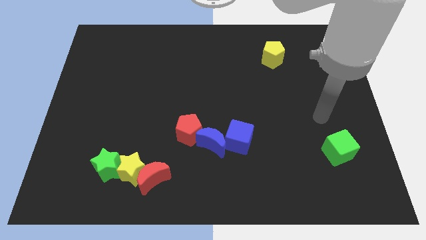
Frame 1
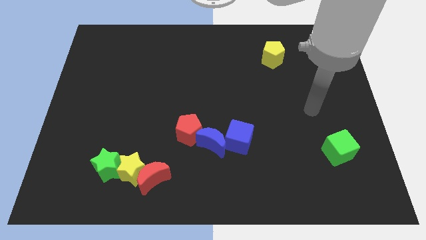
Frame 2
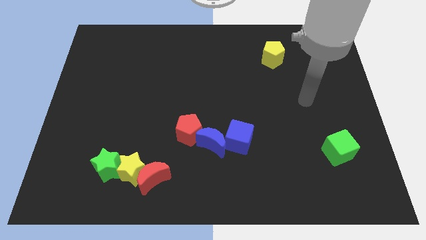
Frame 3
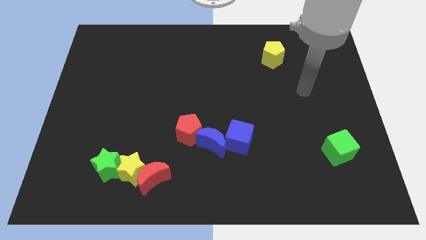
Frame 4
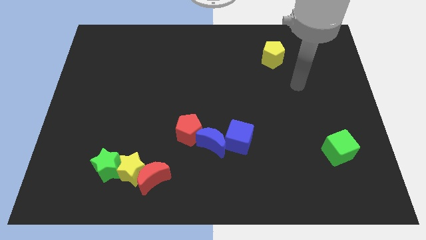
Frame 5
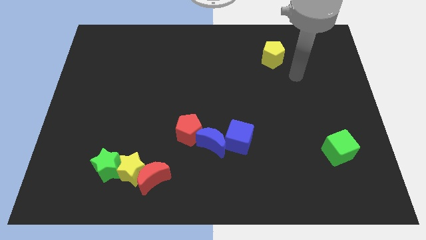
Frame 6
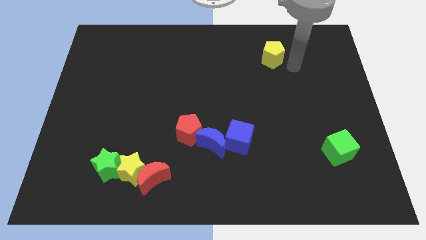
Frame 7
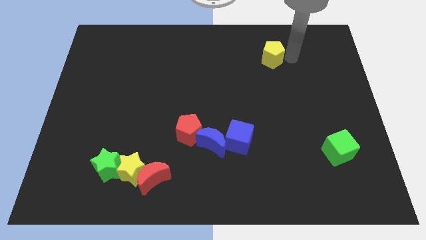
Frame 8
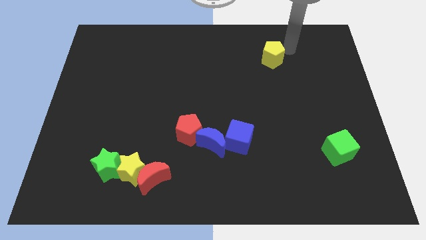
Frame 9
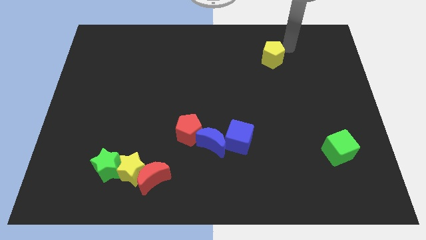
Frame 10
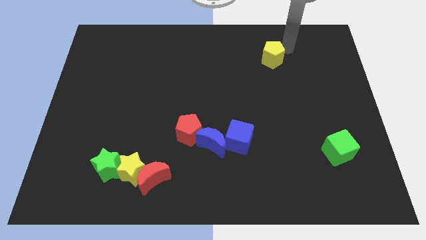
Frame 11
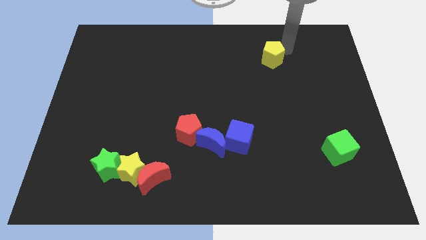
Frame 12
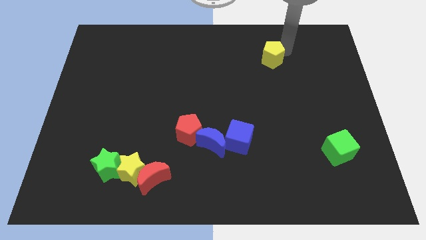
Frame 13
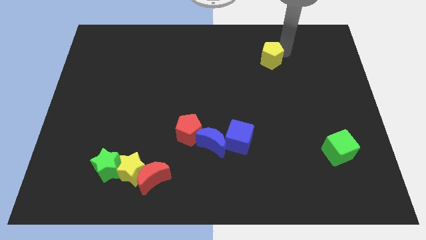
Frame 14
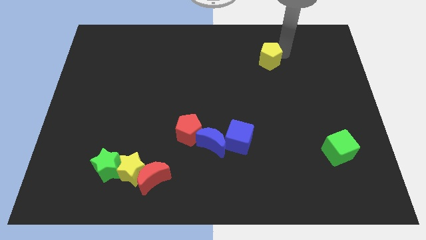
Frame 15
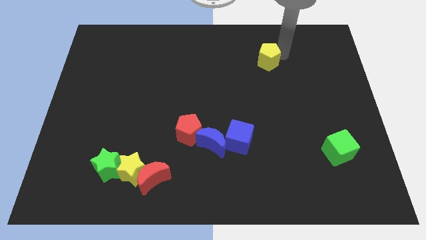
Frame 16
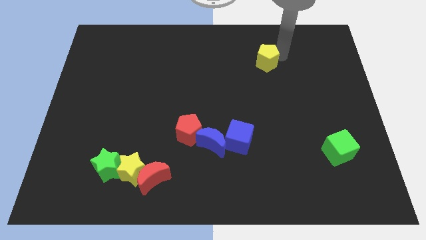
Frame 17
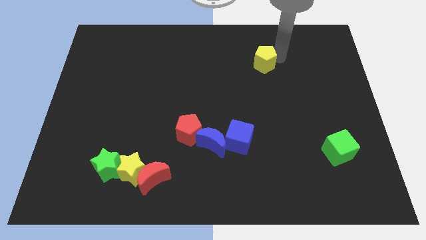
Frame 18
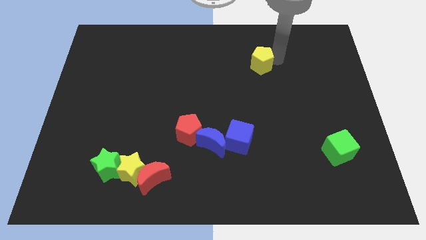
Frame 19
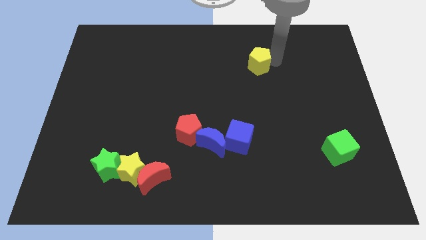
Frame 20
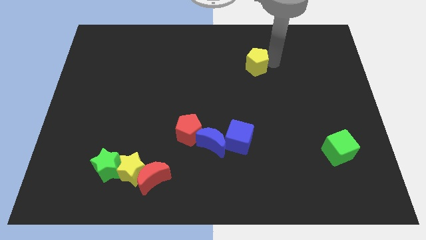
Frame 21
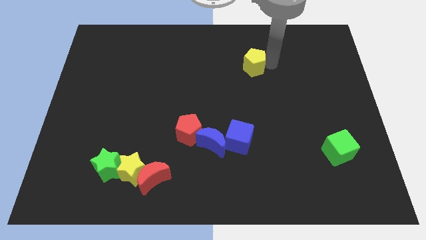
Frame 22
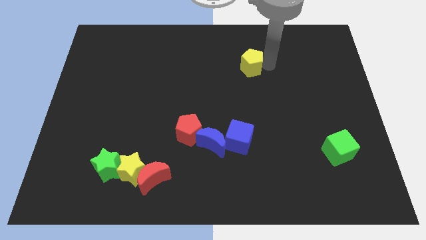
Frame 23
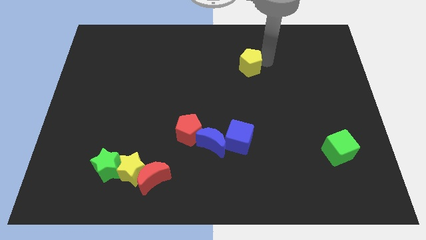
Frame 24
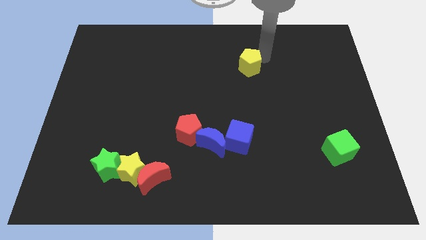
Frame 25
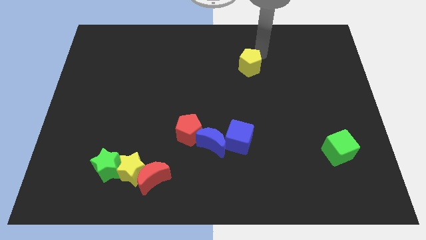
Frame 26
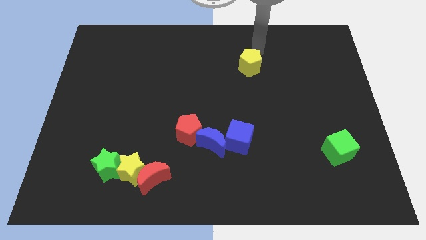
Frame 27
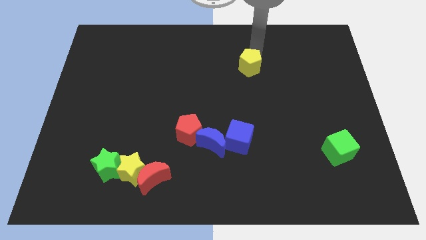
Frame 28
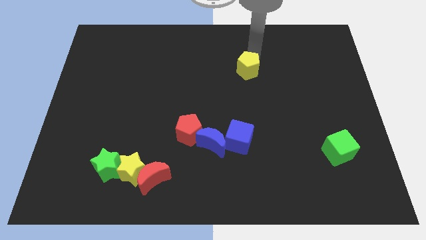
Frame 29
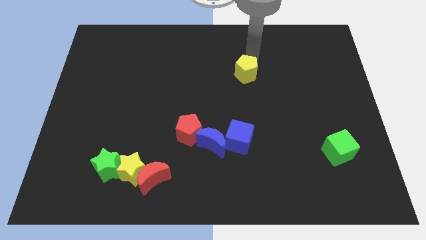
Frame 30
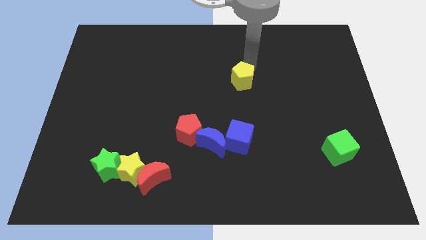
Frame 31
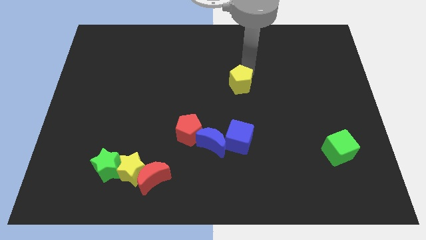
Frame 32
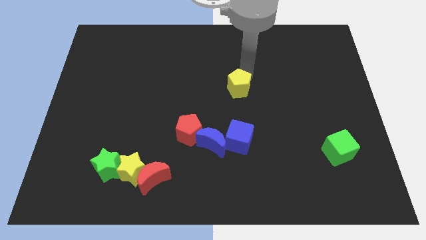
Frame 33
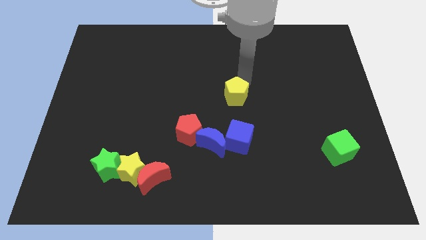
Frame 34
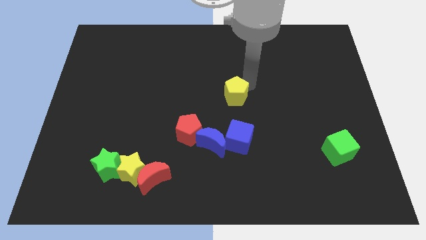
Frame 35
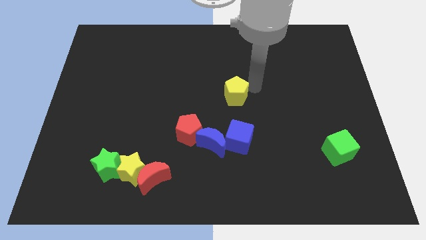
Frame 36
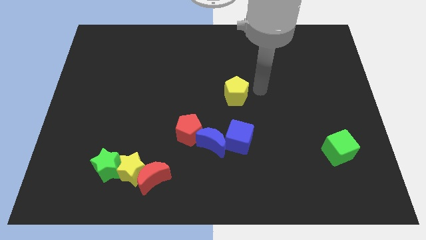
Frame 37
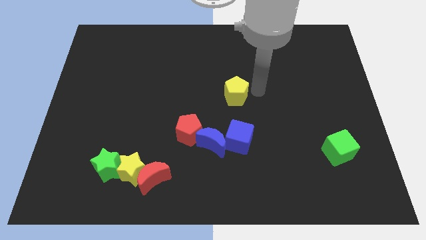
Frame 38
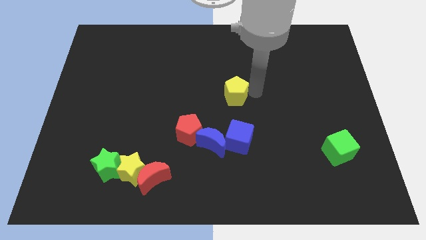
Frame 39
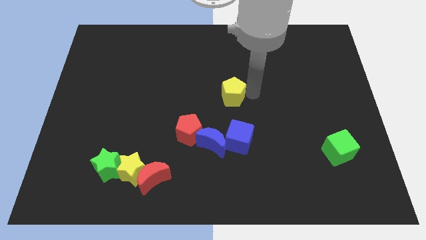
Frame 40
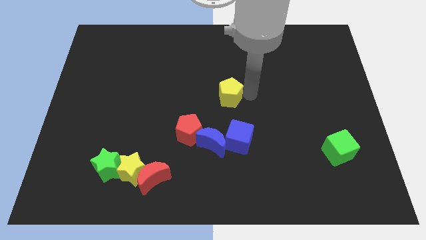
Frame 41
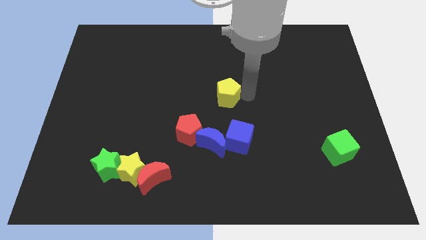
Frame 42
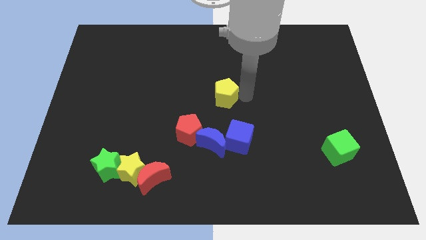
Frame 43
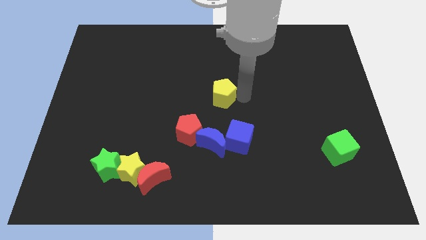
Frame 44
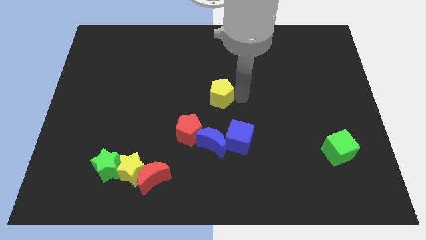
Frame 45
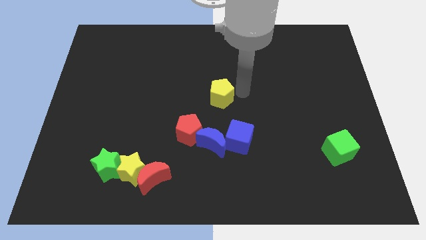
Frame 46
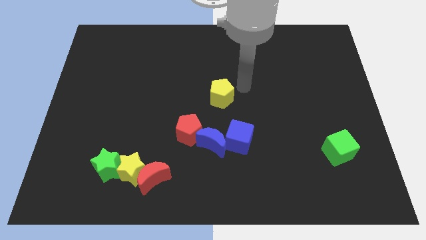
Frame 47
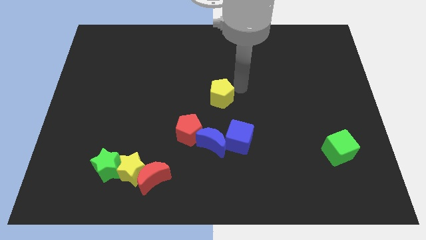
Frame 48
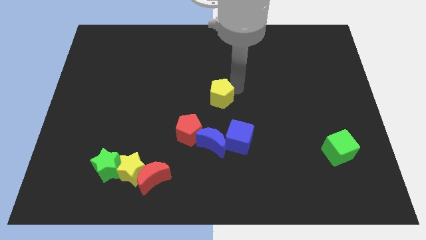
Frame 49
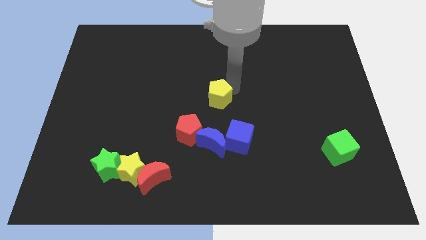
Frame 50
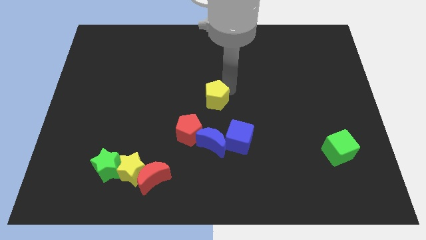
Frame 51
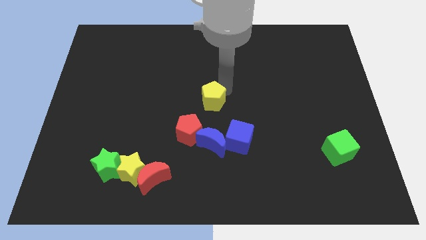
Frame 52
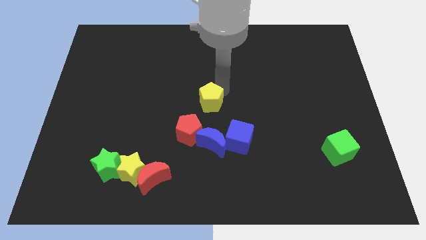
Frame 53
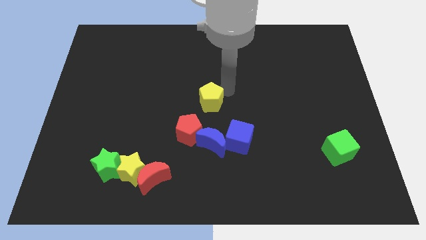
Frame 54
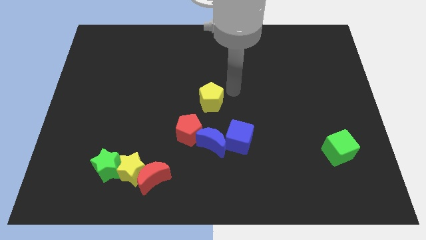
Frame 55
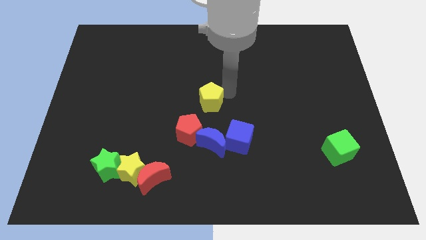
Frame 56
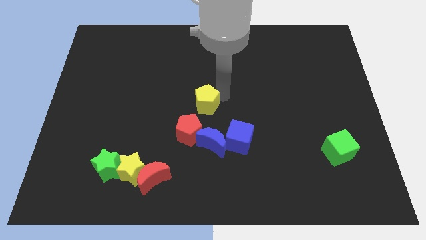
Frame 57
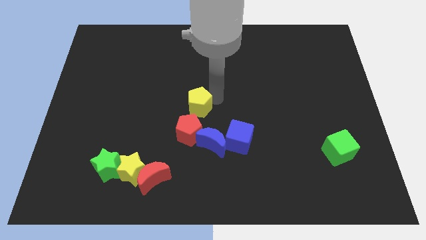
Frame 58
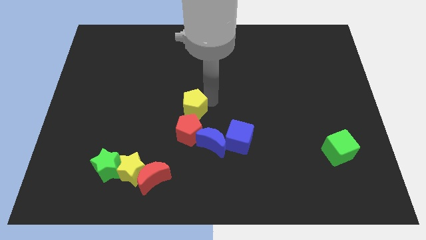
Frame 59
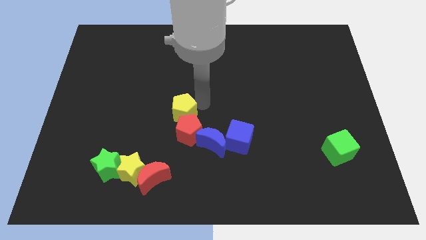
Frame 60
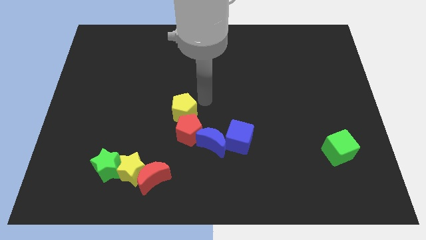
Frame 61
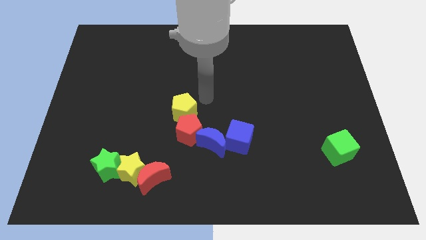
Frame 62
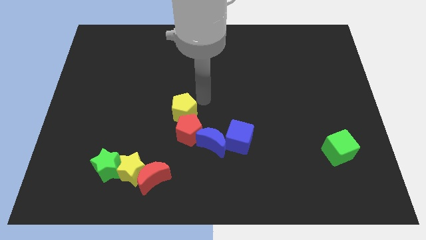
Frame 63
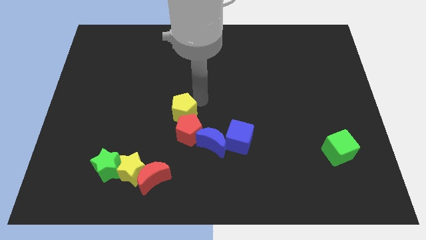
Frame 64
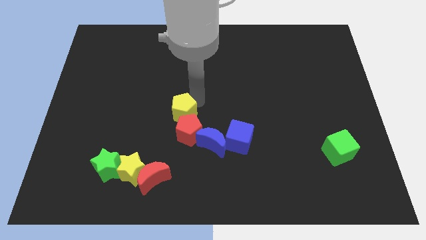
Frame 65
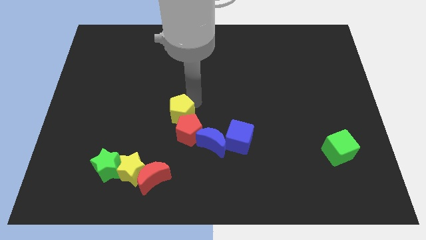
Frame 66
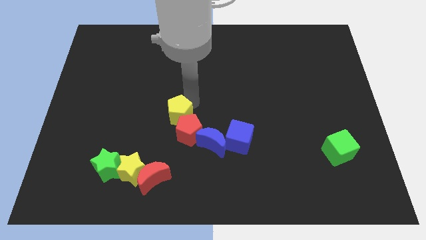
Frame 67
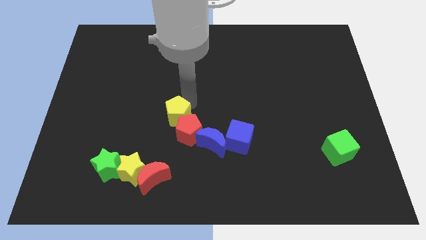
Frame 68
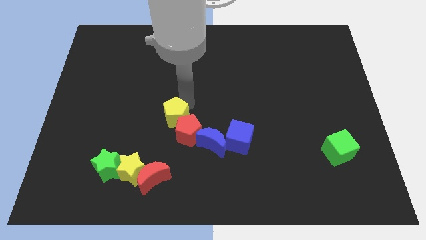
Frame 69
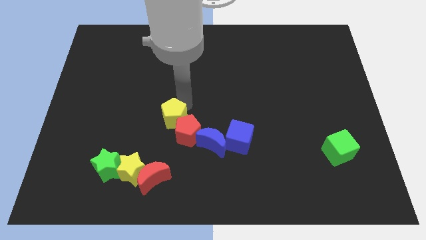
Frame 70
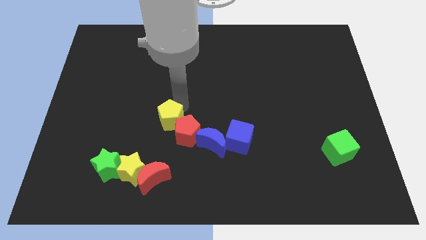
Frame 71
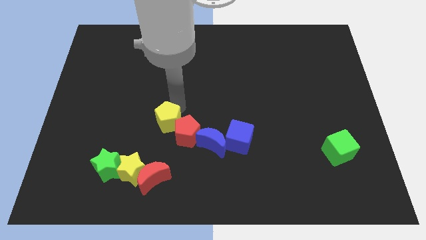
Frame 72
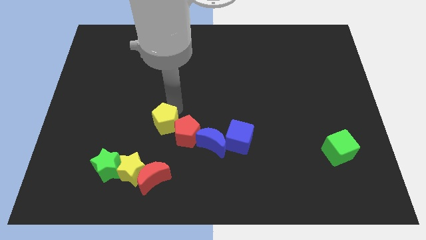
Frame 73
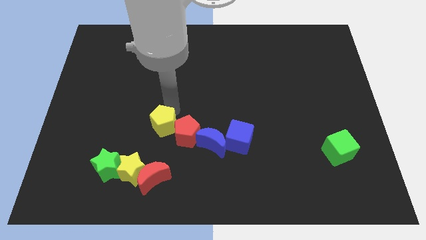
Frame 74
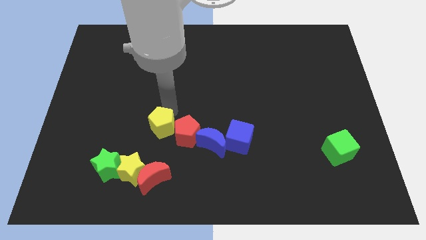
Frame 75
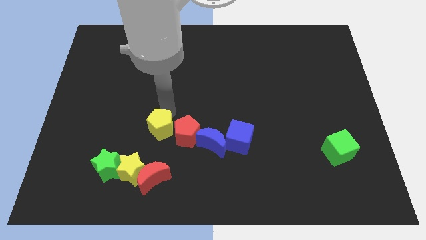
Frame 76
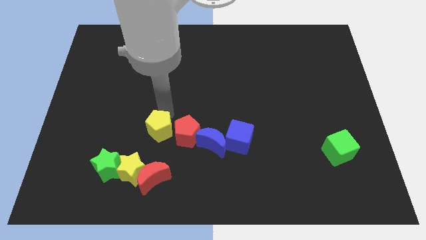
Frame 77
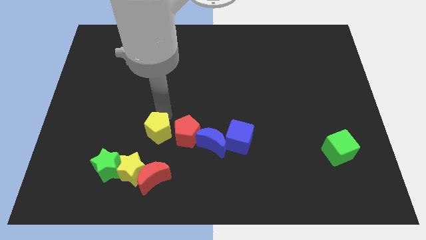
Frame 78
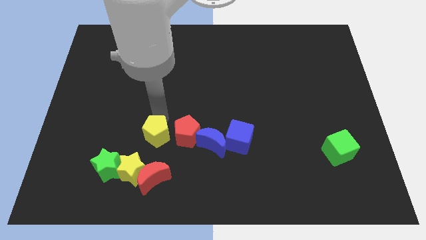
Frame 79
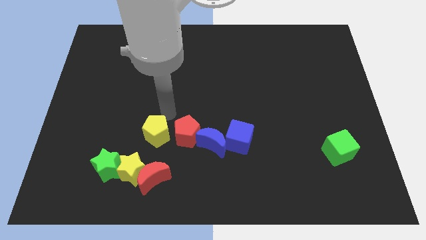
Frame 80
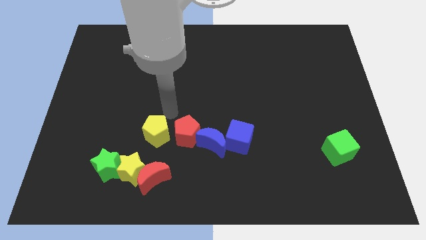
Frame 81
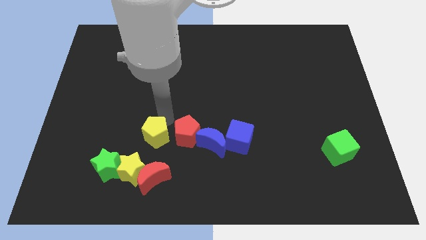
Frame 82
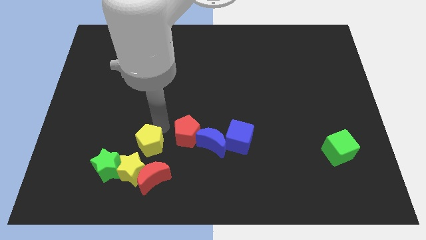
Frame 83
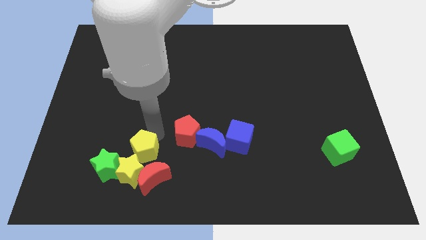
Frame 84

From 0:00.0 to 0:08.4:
push the yellow pentagon next to the yellow star
